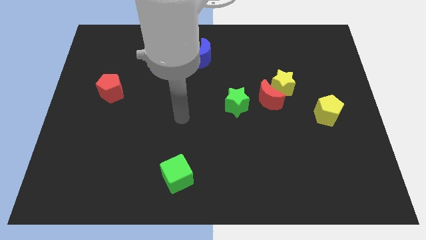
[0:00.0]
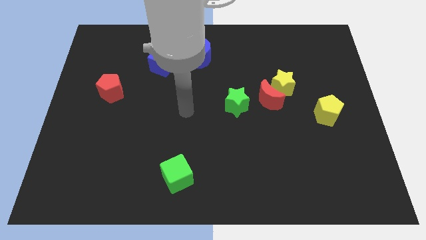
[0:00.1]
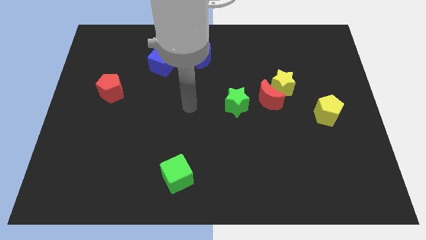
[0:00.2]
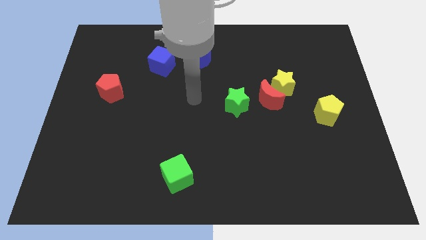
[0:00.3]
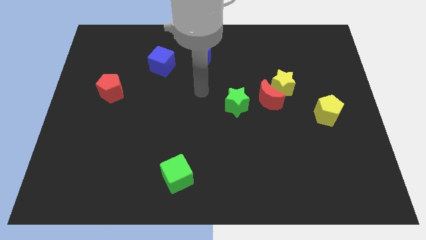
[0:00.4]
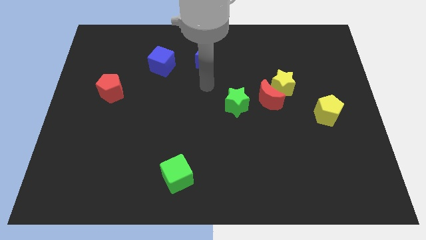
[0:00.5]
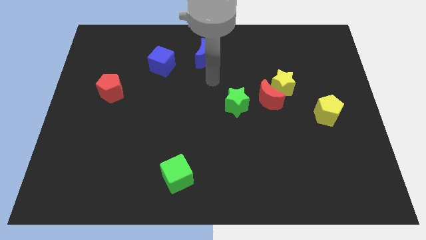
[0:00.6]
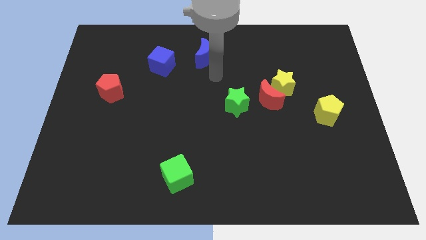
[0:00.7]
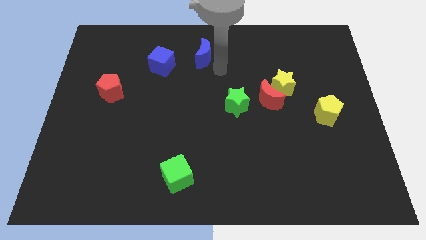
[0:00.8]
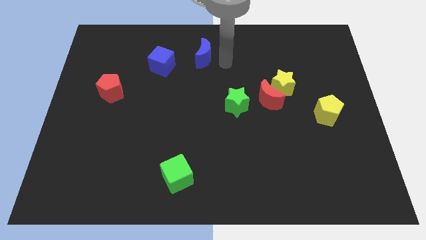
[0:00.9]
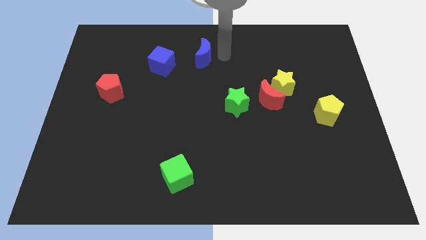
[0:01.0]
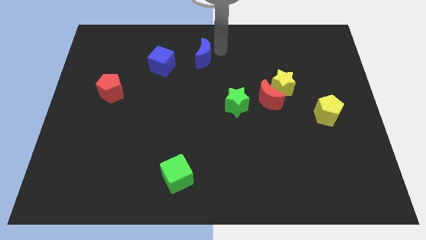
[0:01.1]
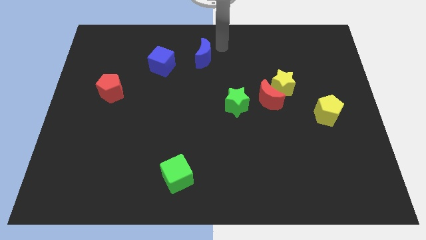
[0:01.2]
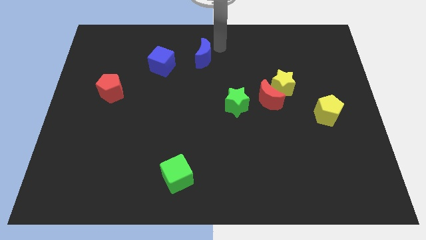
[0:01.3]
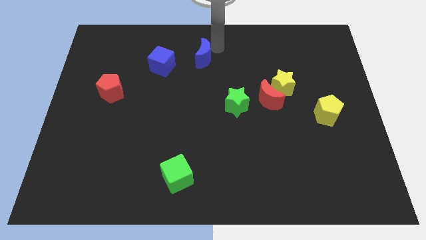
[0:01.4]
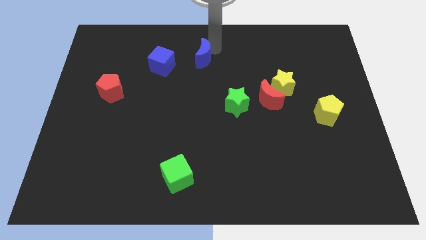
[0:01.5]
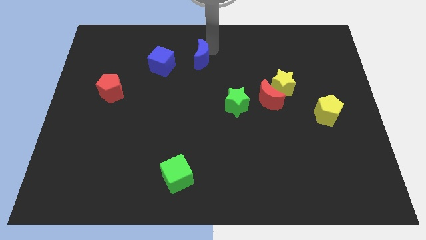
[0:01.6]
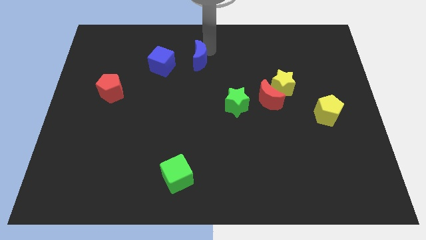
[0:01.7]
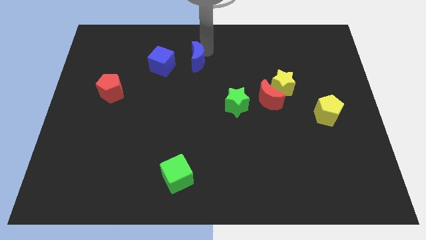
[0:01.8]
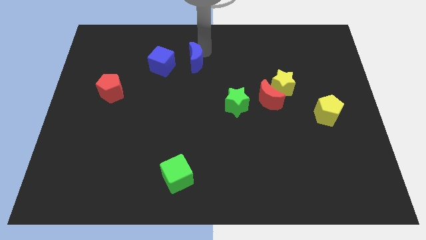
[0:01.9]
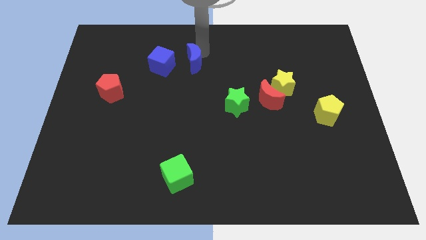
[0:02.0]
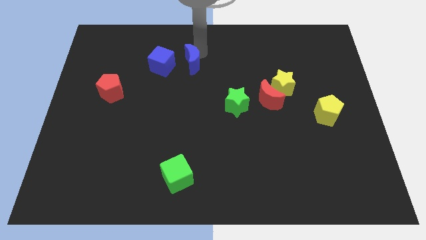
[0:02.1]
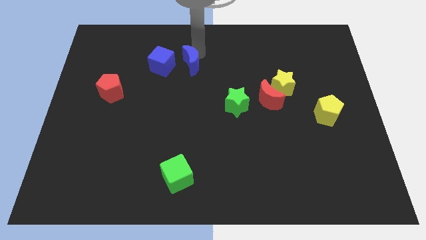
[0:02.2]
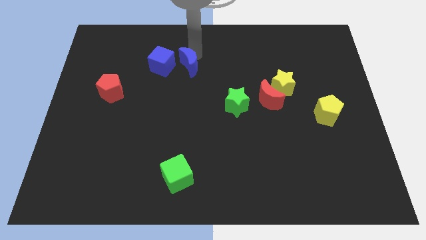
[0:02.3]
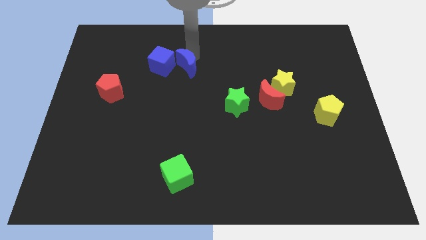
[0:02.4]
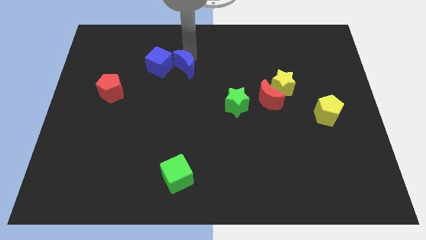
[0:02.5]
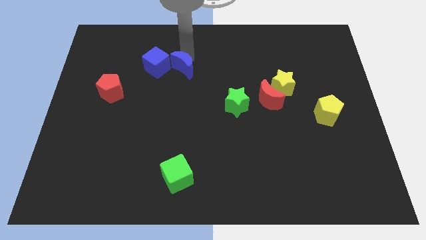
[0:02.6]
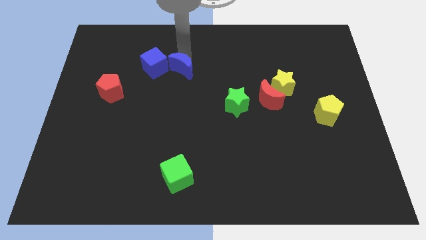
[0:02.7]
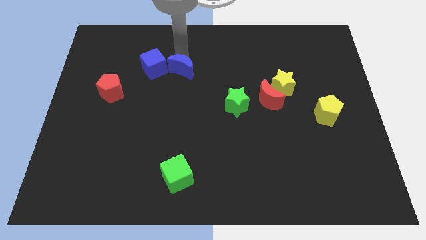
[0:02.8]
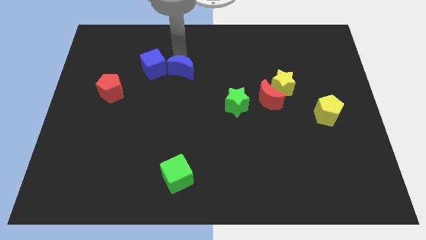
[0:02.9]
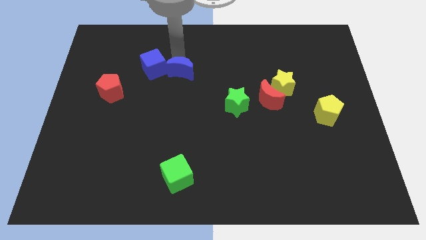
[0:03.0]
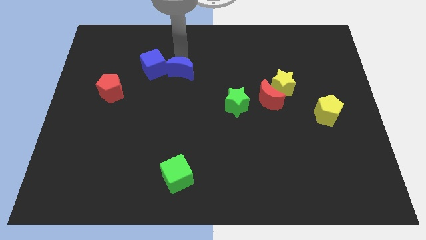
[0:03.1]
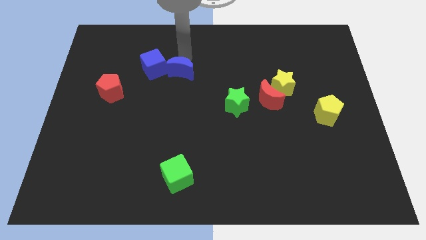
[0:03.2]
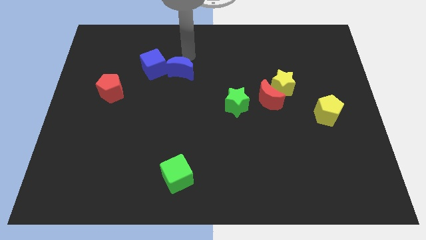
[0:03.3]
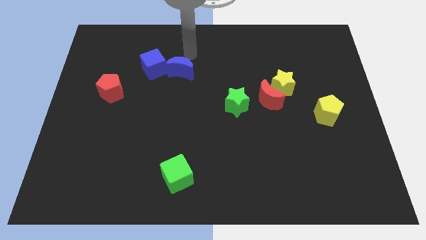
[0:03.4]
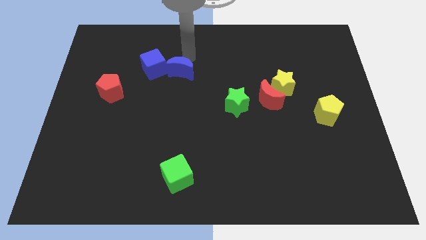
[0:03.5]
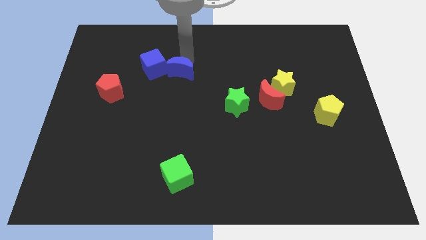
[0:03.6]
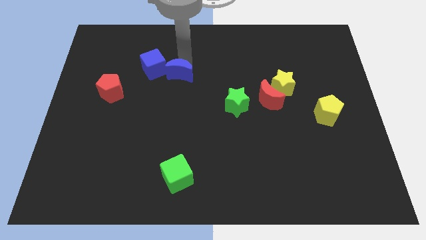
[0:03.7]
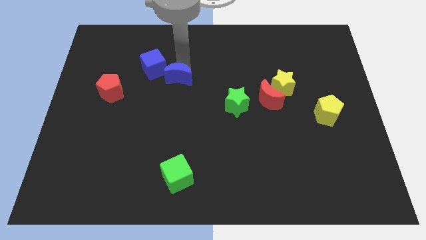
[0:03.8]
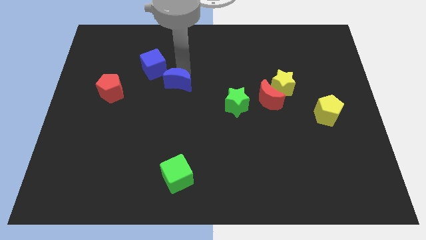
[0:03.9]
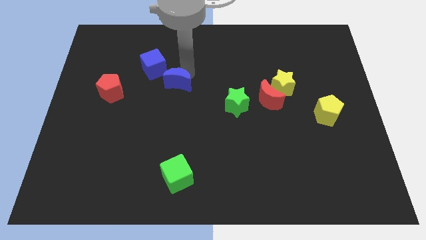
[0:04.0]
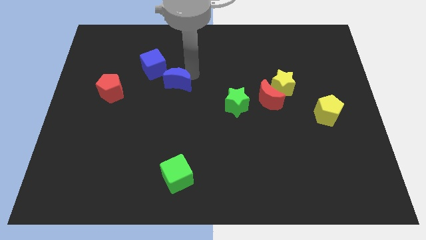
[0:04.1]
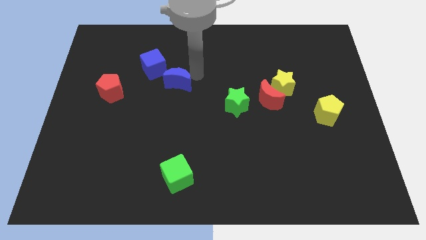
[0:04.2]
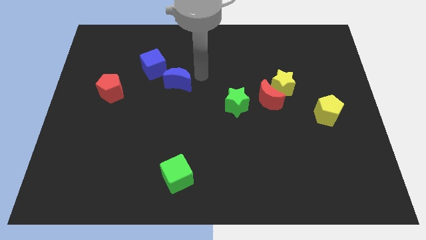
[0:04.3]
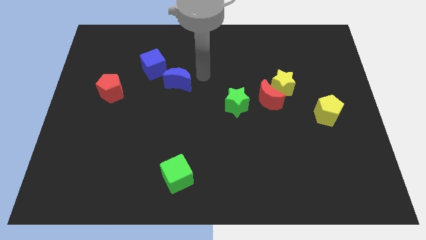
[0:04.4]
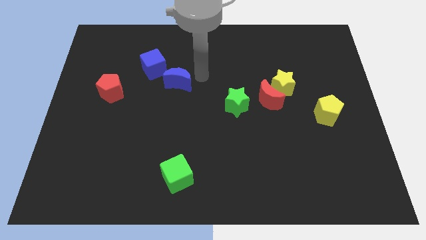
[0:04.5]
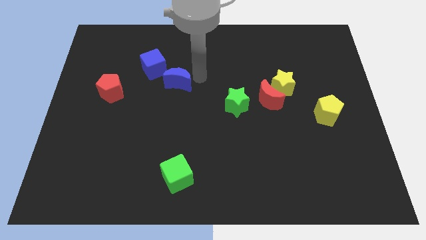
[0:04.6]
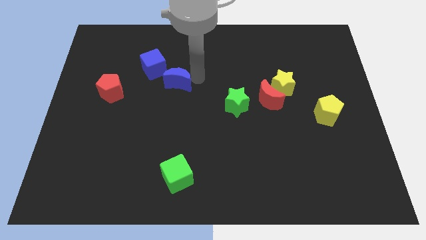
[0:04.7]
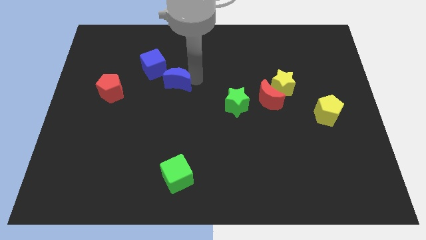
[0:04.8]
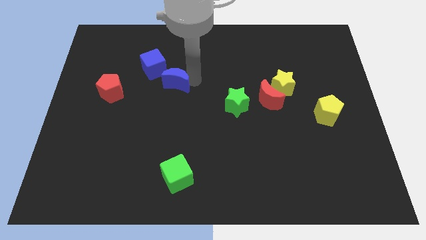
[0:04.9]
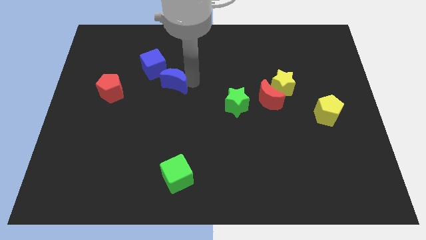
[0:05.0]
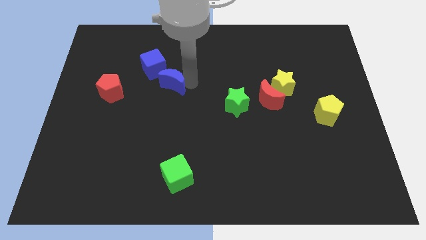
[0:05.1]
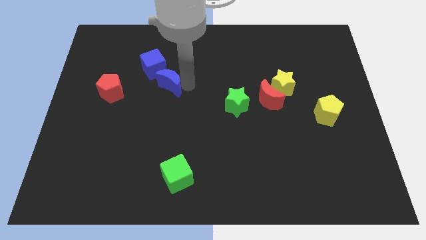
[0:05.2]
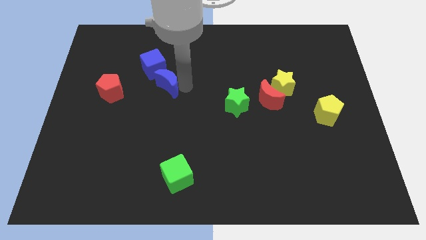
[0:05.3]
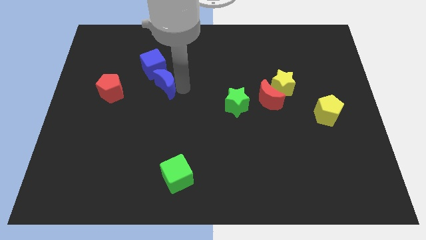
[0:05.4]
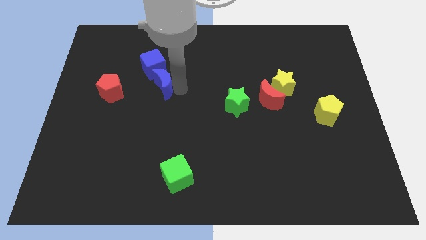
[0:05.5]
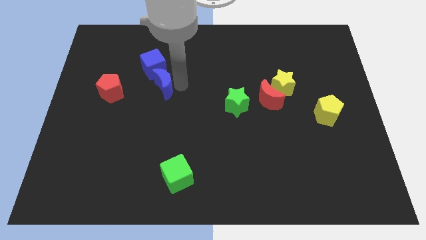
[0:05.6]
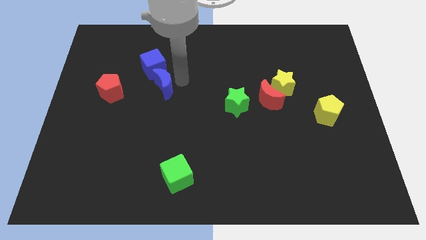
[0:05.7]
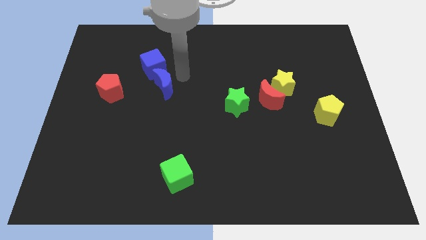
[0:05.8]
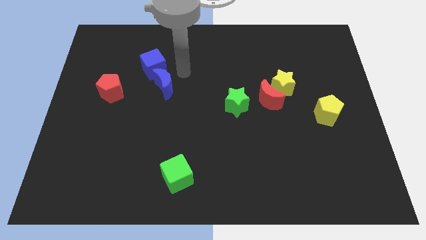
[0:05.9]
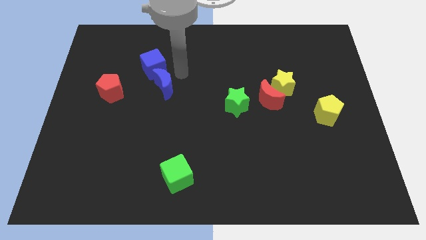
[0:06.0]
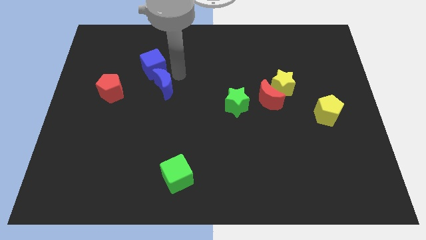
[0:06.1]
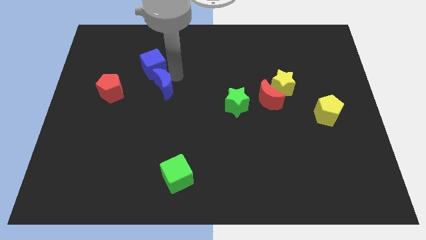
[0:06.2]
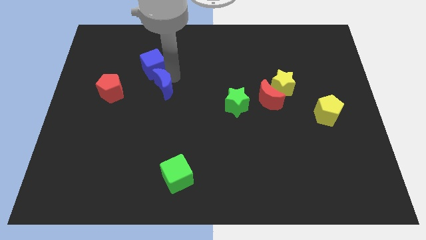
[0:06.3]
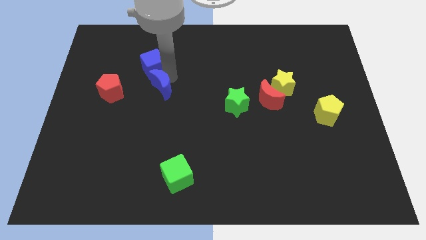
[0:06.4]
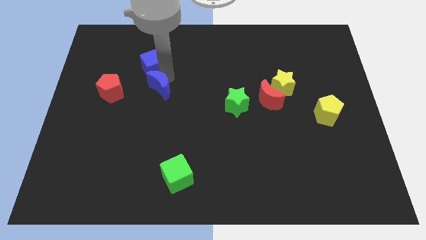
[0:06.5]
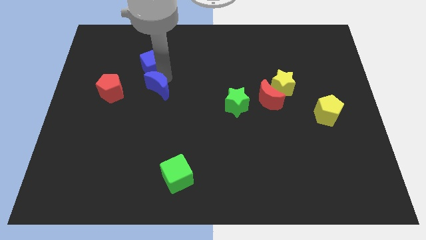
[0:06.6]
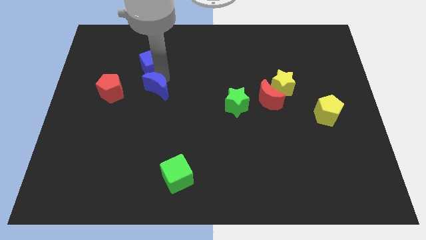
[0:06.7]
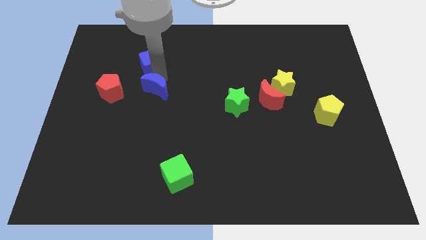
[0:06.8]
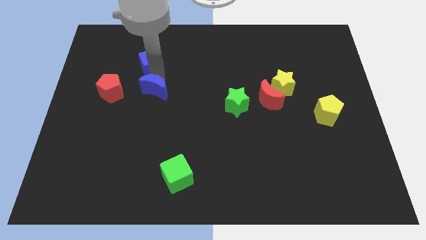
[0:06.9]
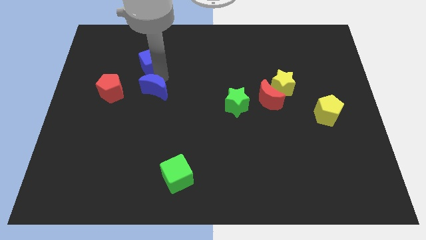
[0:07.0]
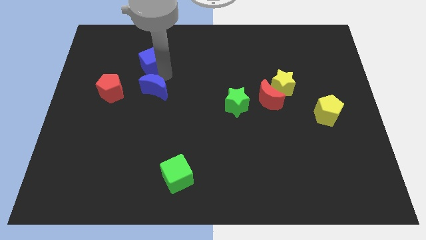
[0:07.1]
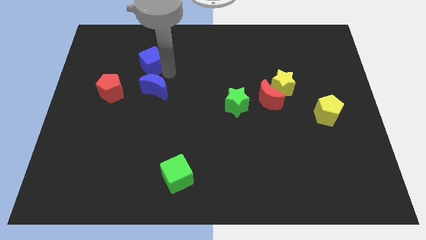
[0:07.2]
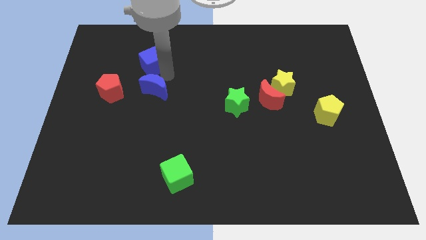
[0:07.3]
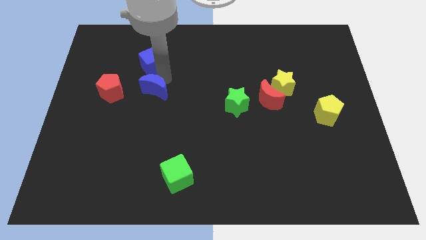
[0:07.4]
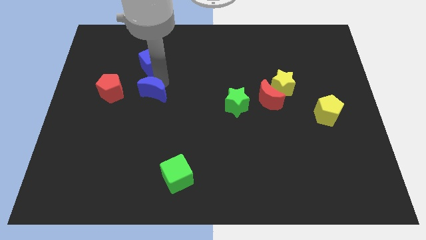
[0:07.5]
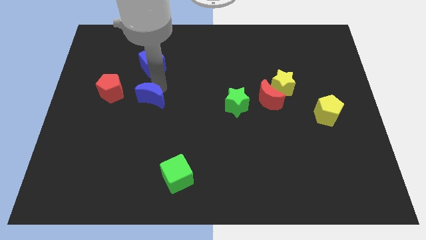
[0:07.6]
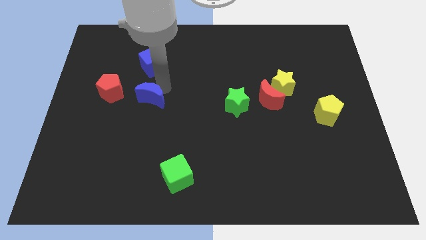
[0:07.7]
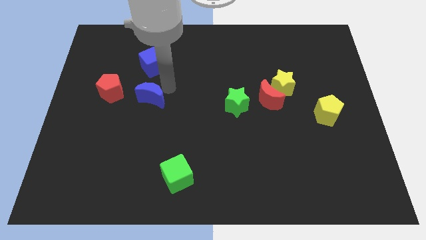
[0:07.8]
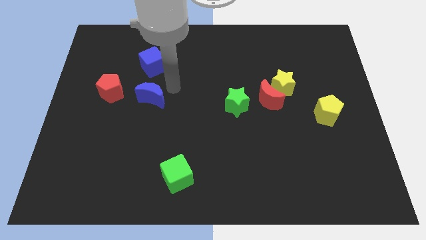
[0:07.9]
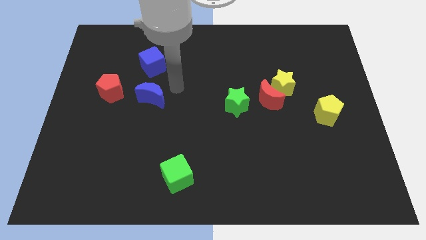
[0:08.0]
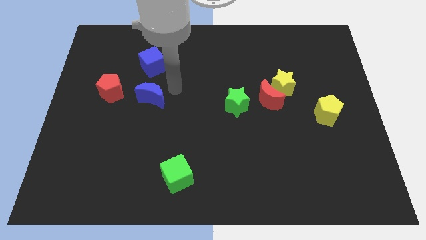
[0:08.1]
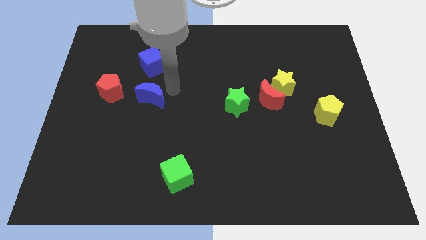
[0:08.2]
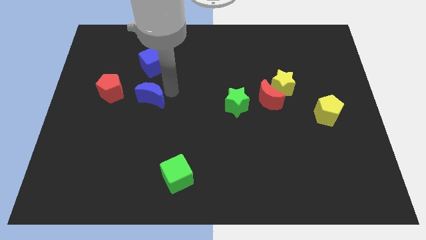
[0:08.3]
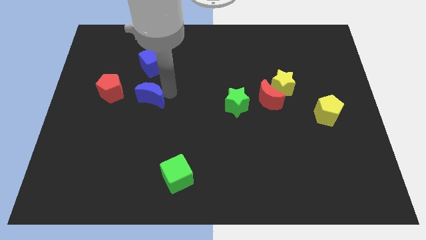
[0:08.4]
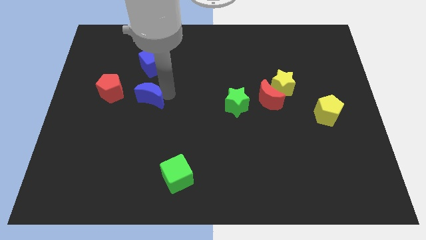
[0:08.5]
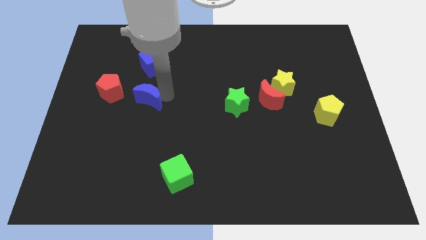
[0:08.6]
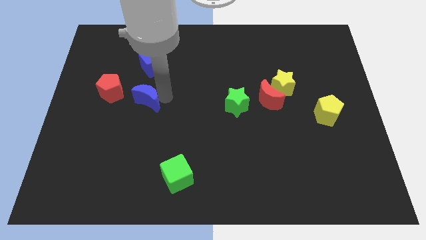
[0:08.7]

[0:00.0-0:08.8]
push the blue moon diagonally downwards and to the left
